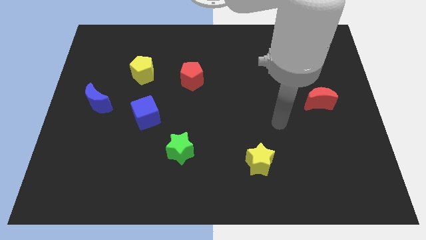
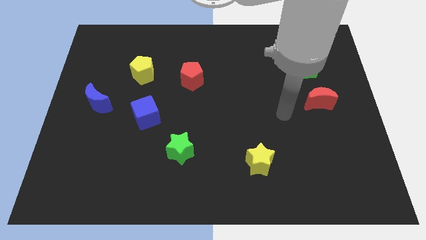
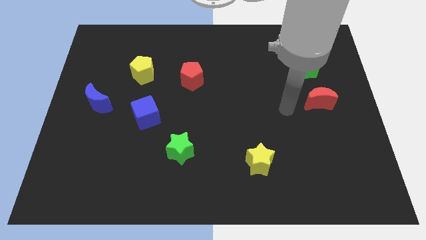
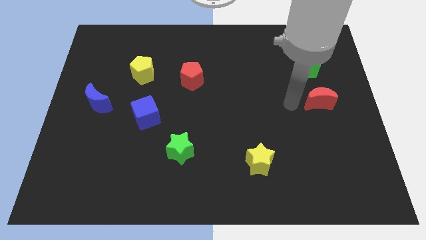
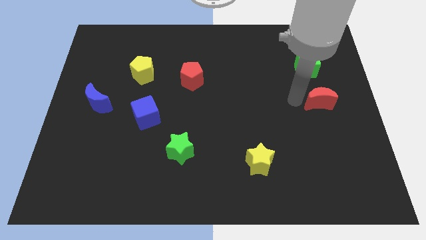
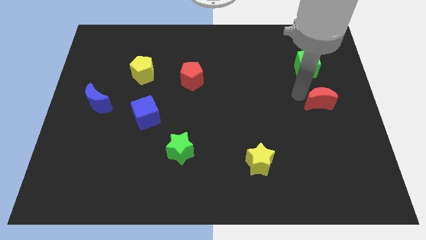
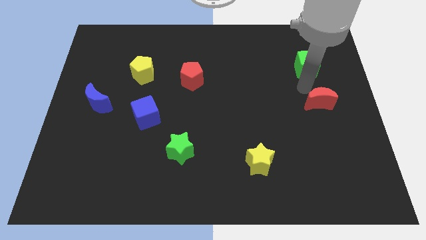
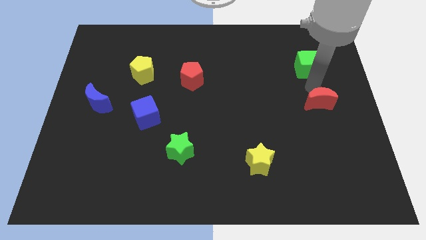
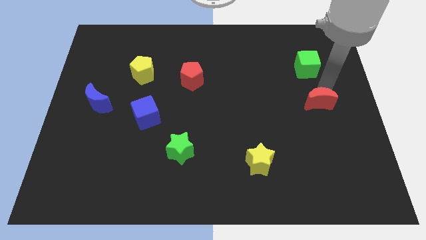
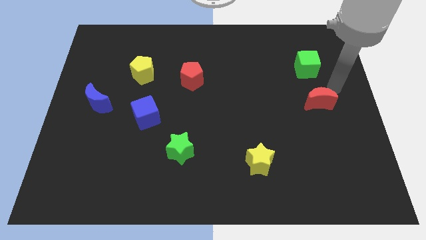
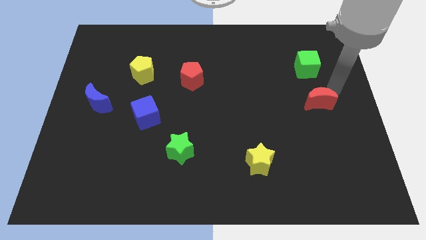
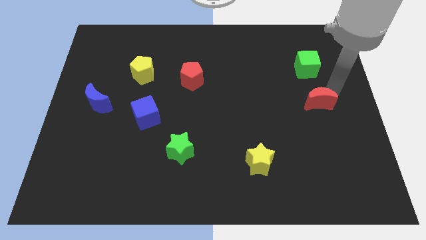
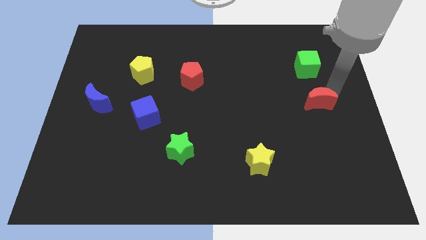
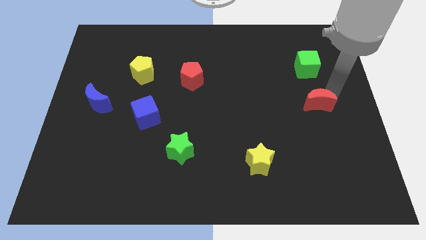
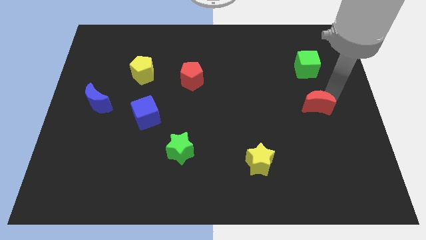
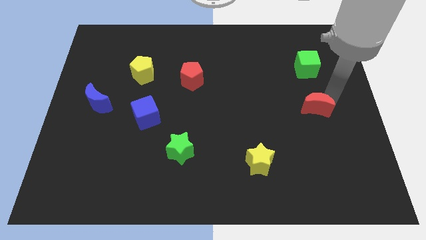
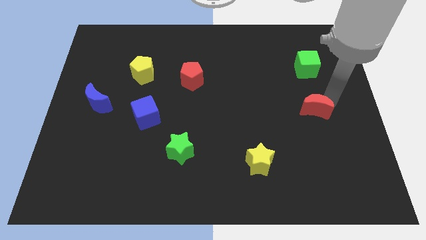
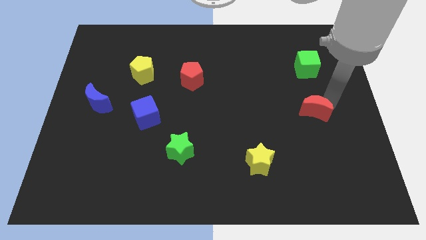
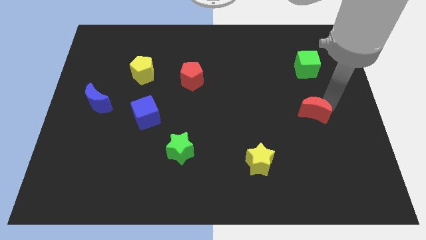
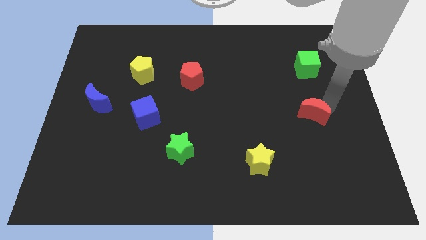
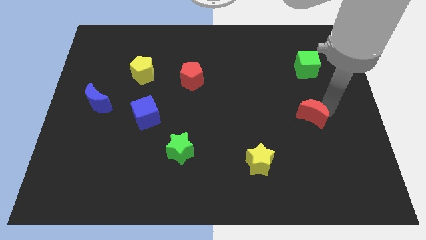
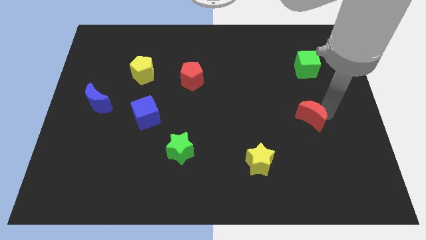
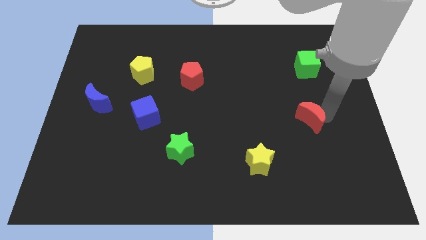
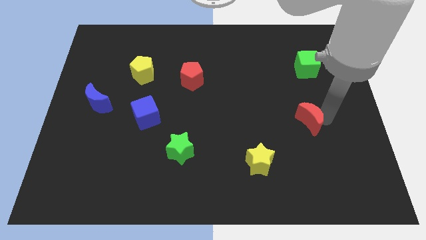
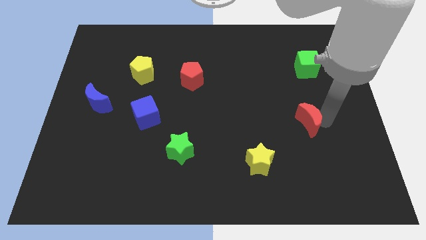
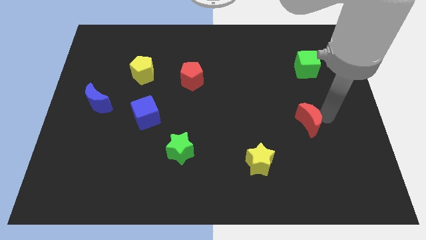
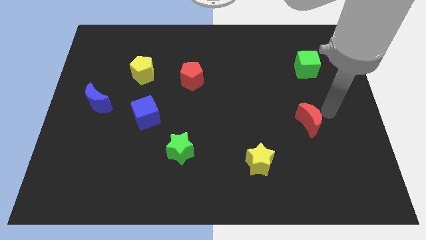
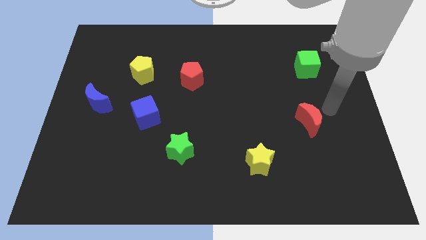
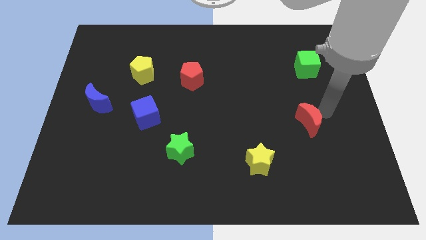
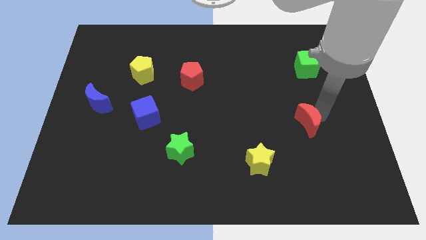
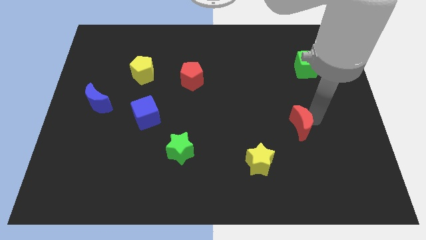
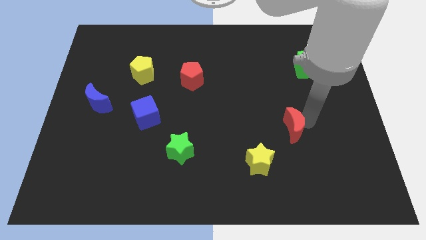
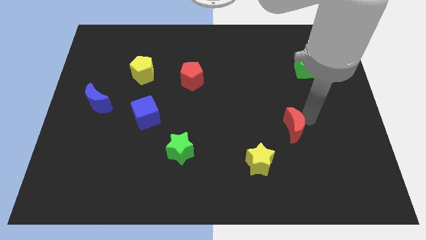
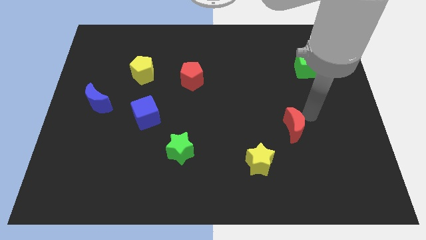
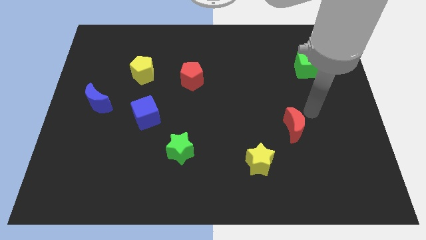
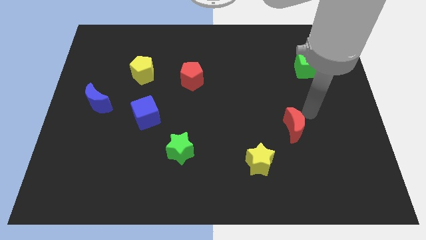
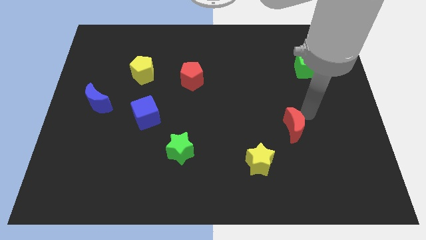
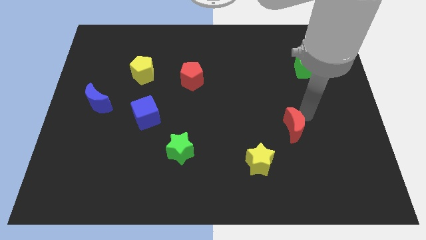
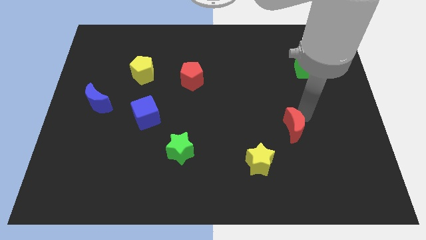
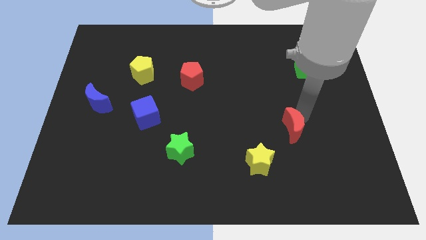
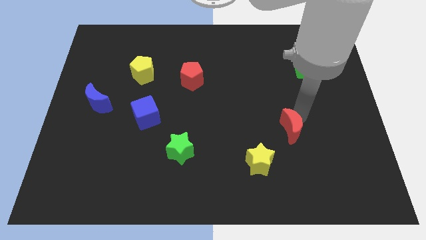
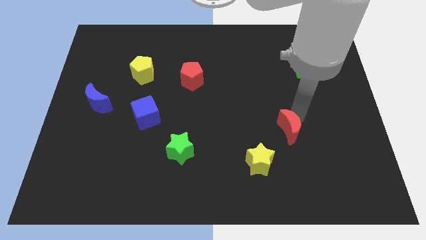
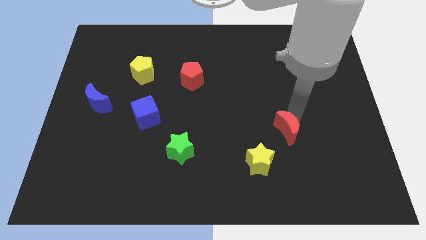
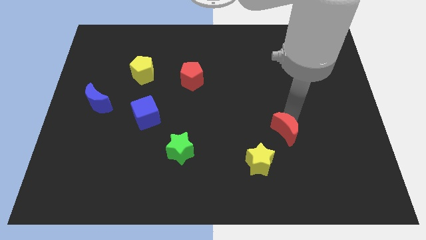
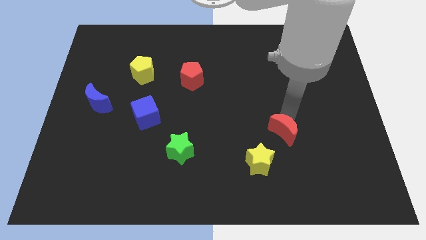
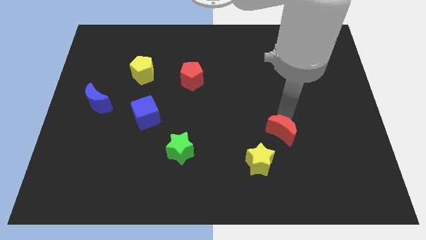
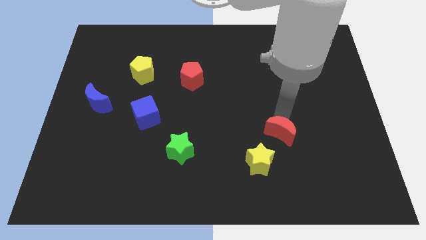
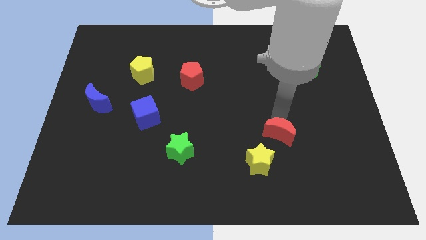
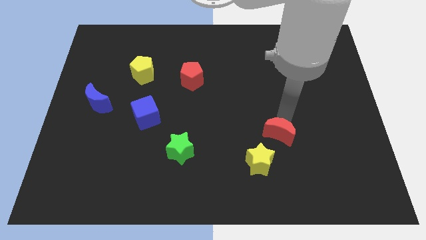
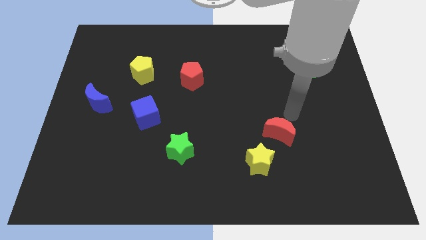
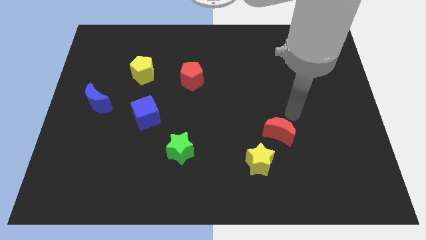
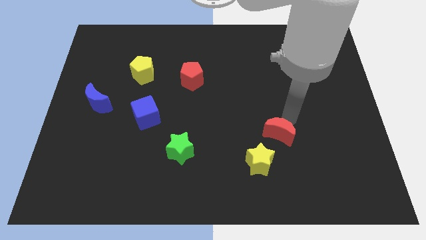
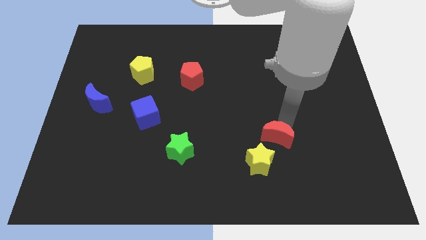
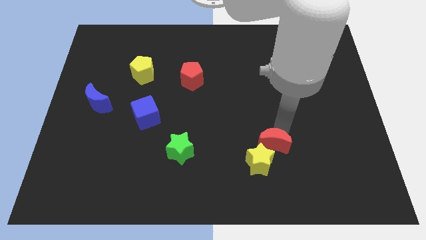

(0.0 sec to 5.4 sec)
push the red moon next to the yellow star
